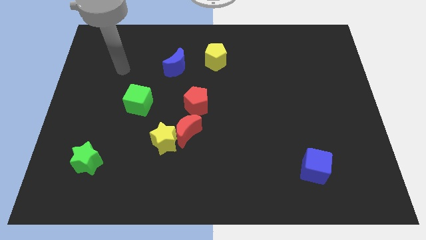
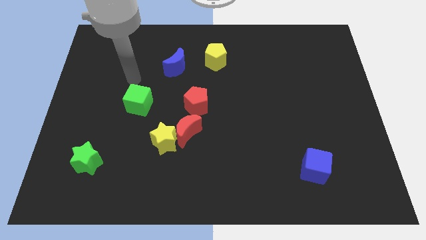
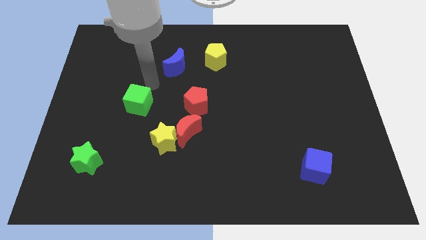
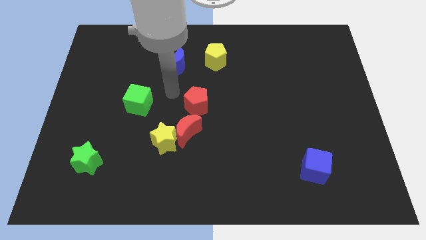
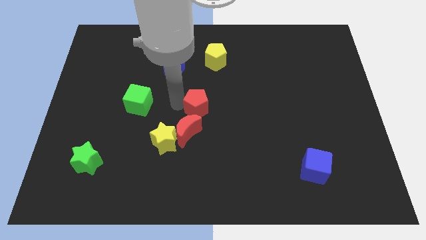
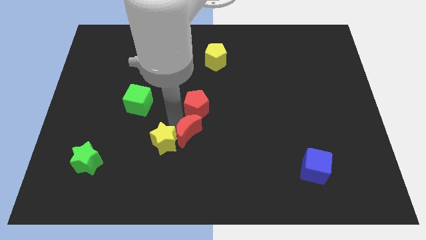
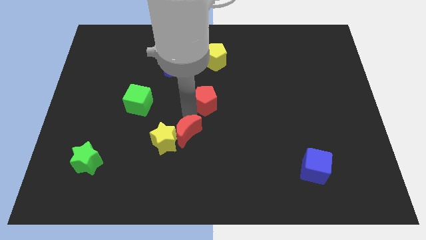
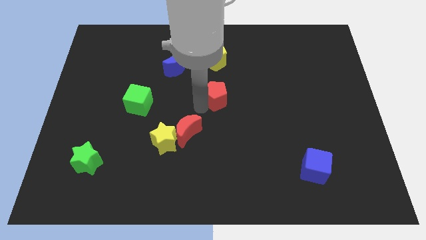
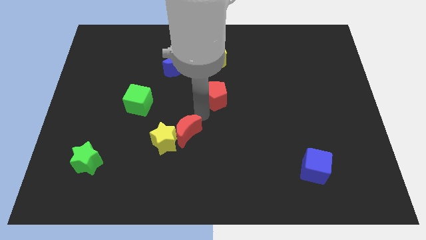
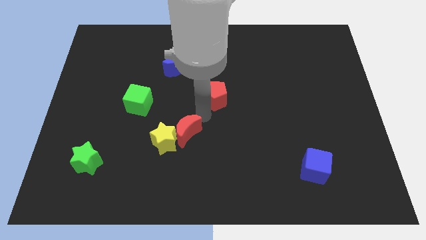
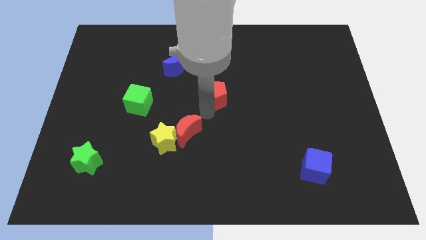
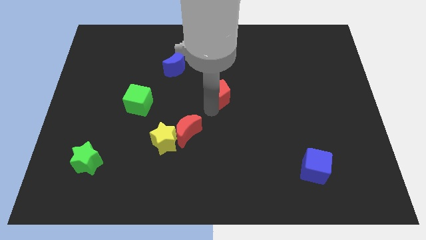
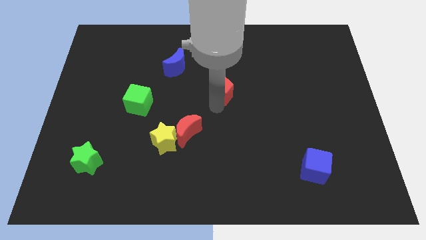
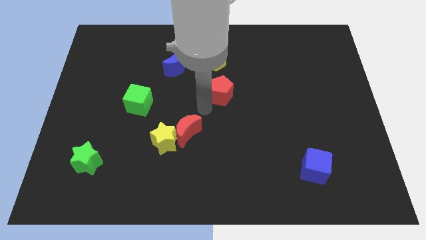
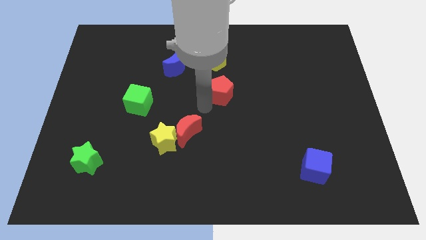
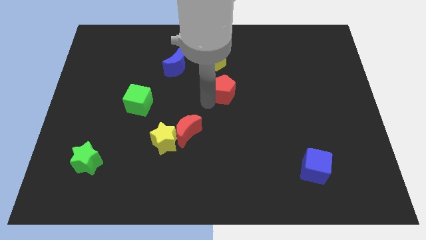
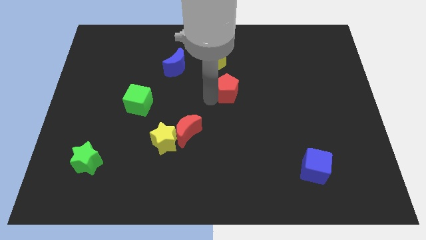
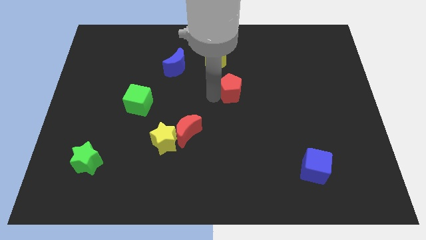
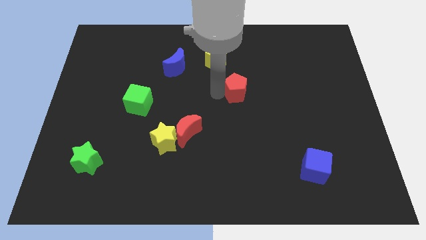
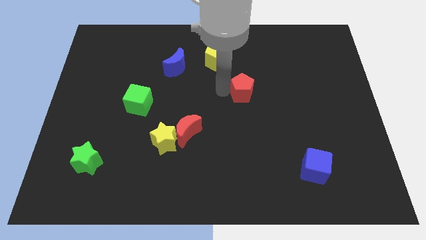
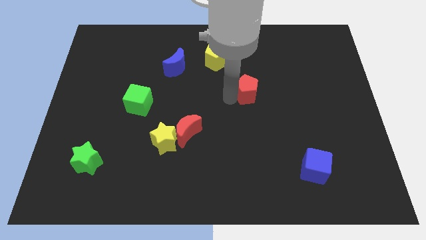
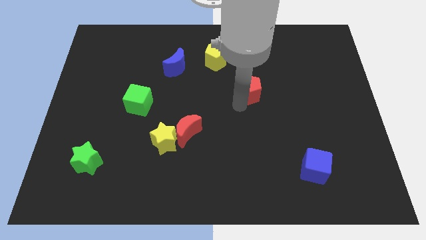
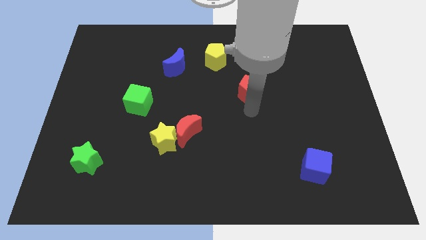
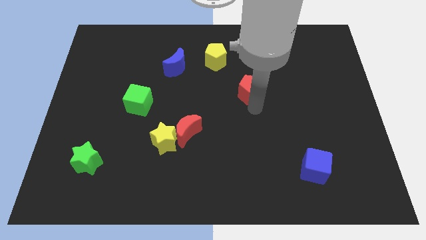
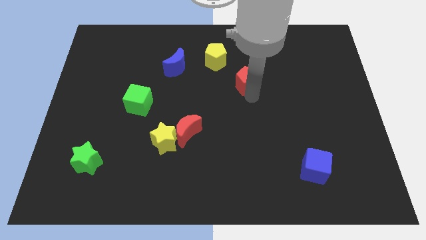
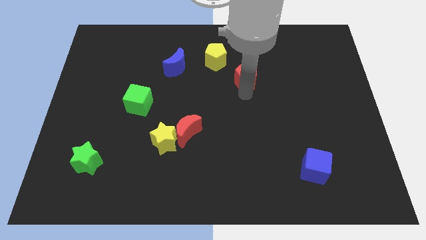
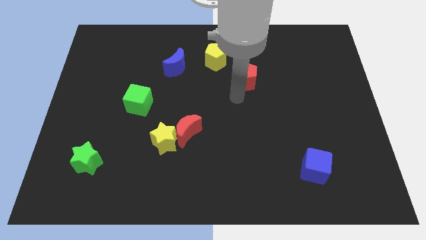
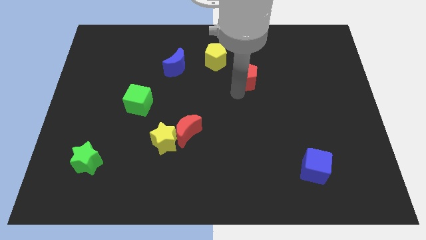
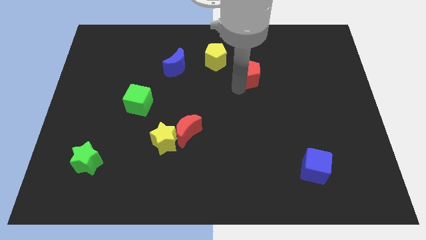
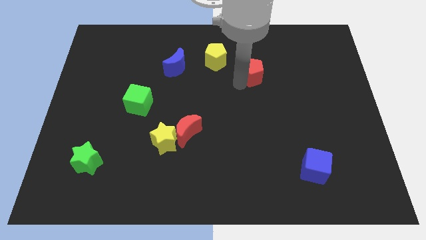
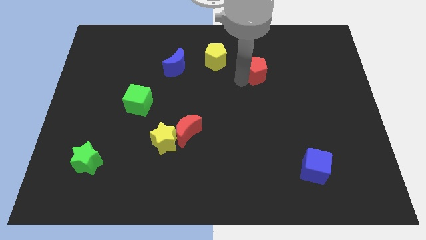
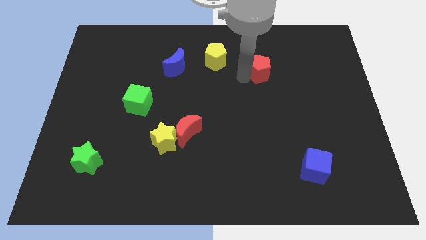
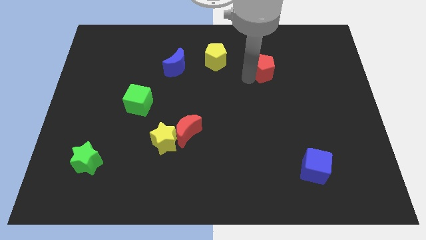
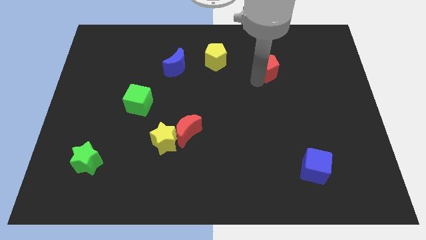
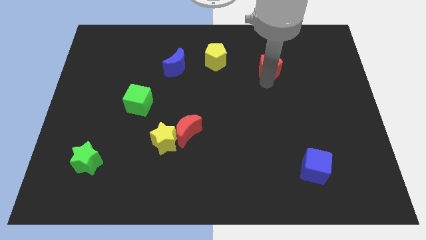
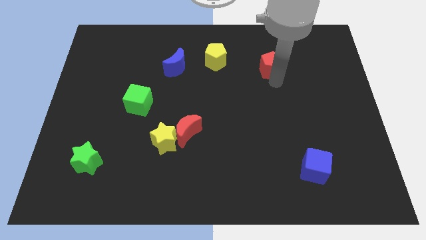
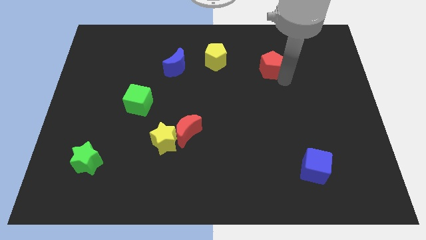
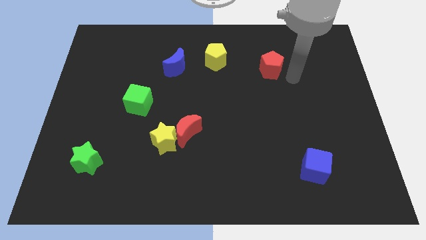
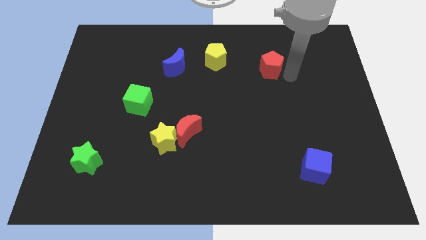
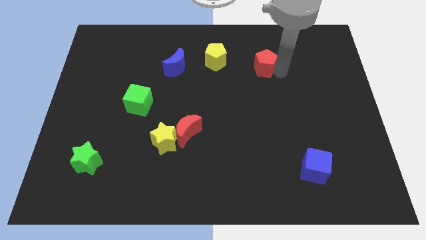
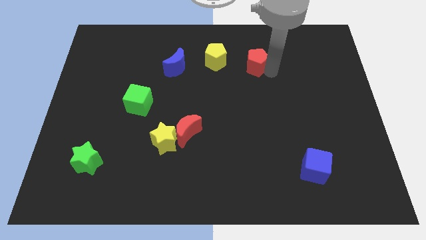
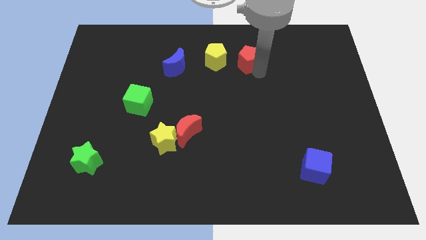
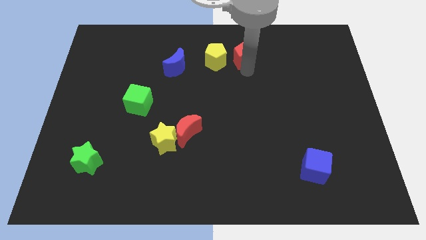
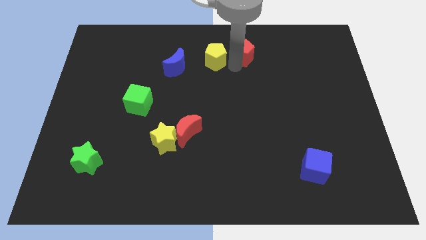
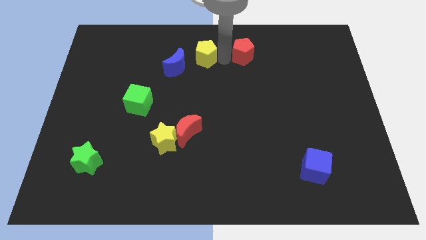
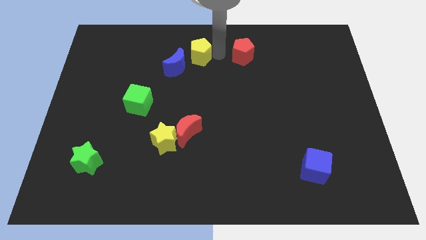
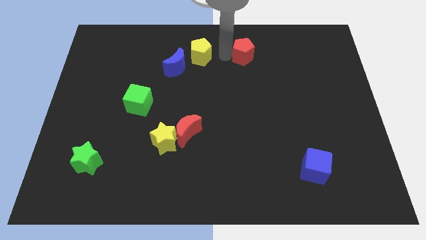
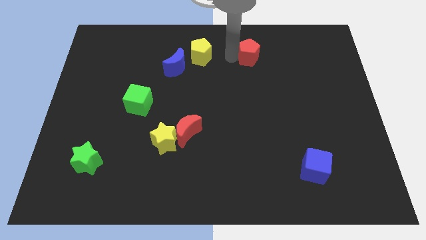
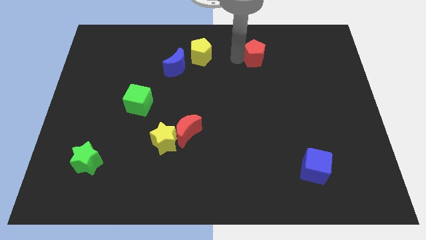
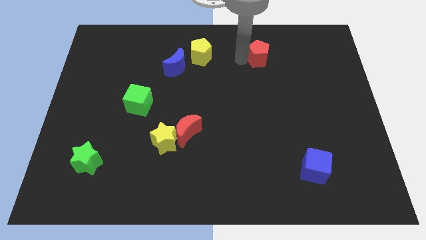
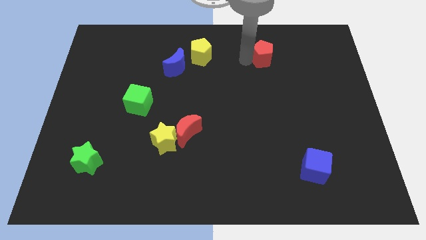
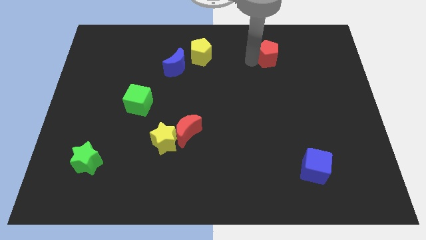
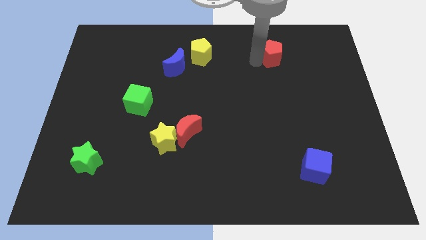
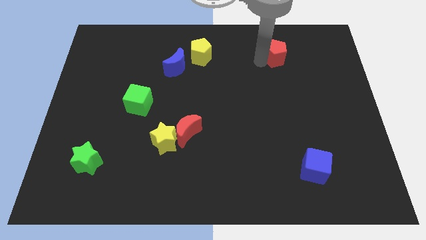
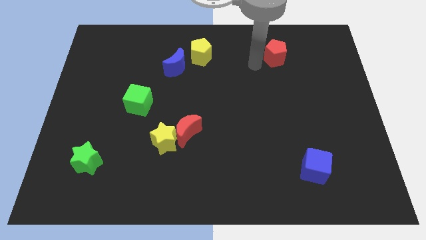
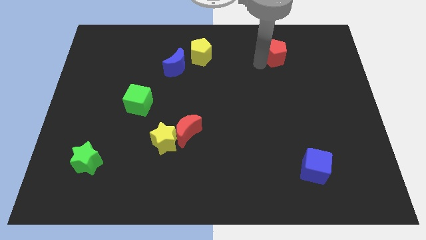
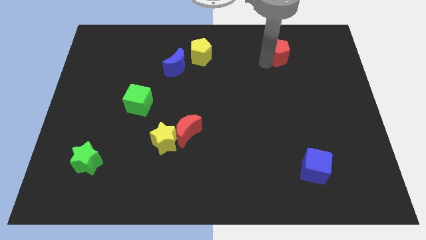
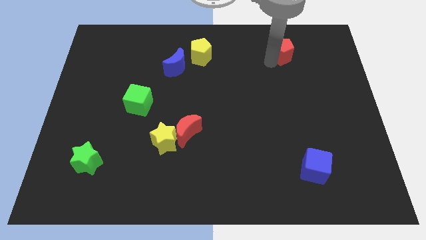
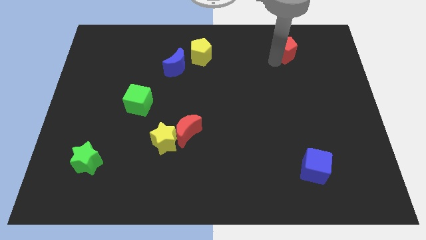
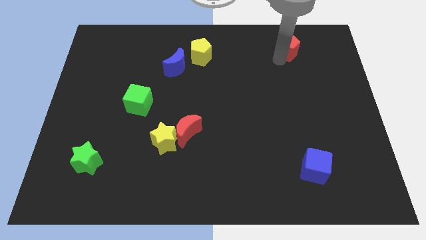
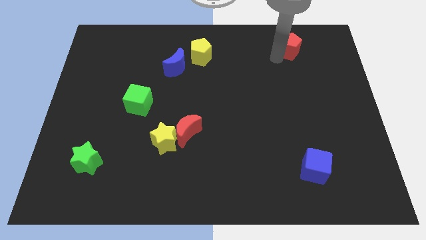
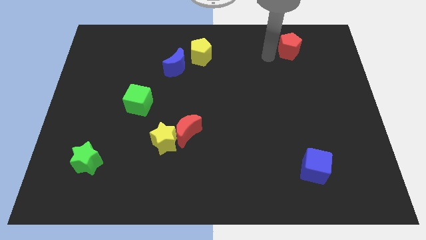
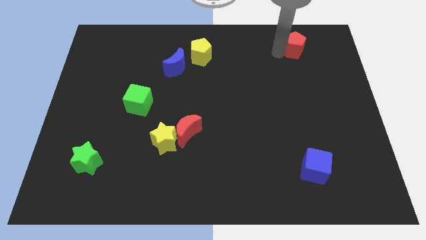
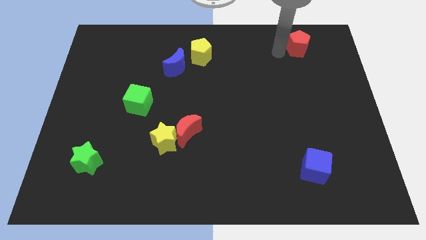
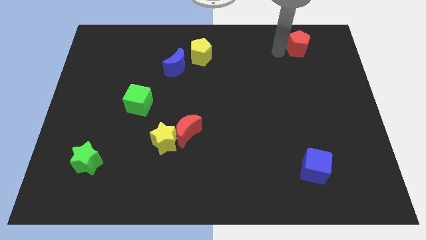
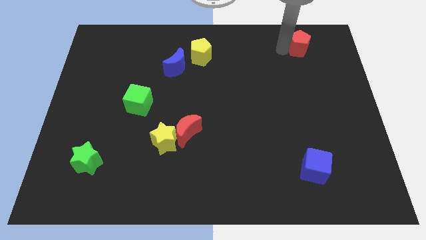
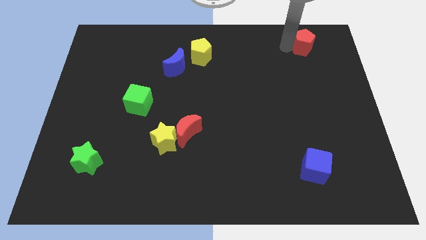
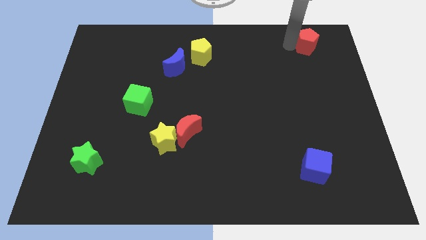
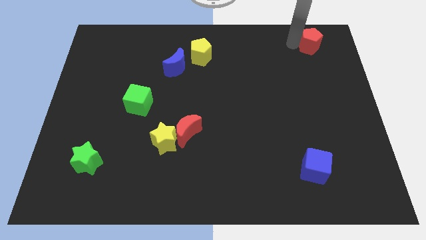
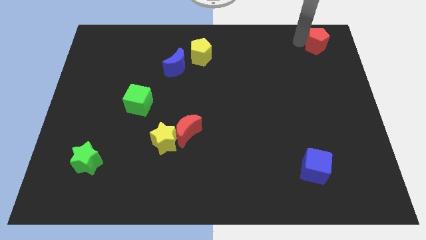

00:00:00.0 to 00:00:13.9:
slide the red pentagon to the top right corner
